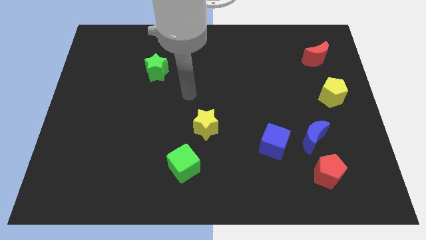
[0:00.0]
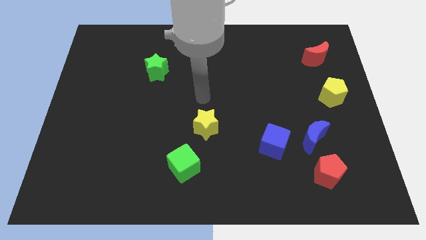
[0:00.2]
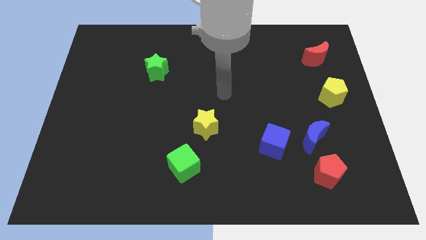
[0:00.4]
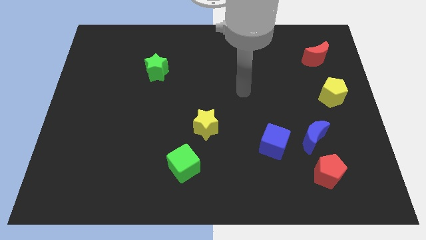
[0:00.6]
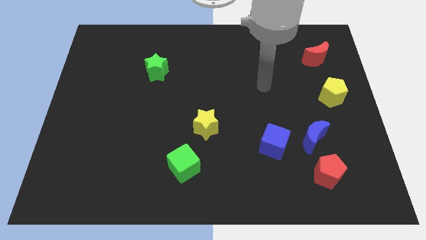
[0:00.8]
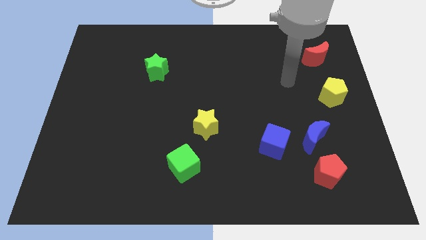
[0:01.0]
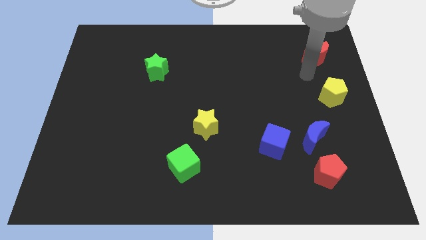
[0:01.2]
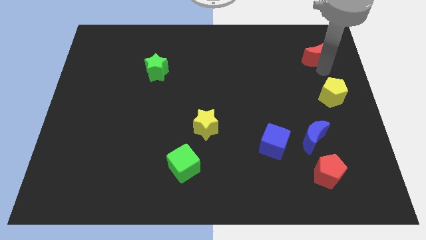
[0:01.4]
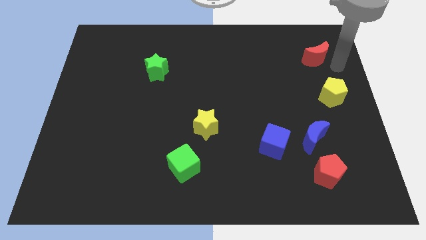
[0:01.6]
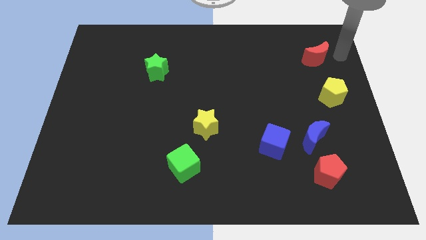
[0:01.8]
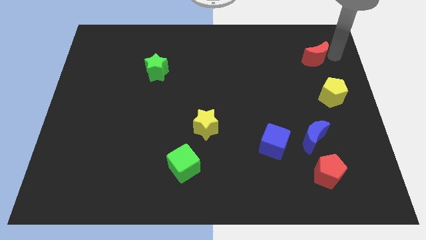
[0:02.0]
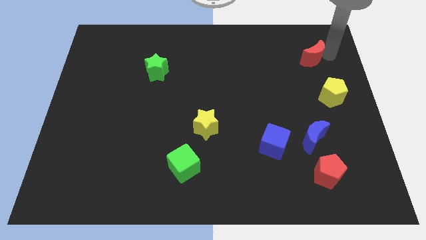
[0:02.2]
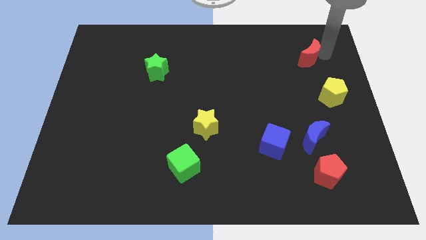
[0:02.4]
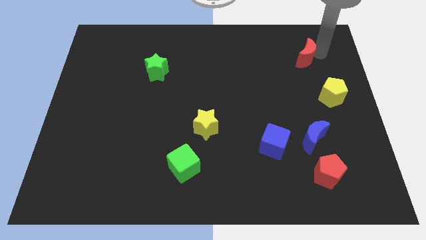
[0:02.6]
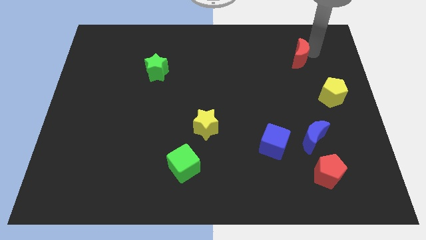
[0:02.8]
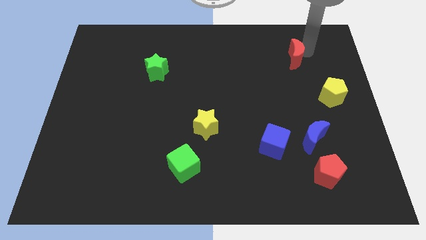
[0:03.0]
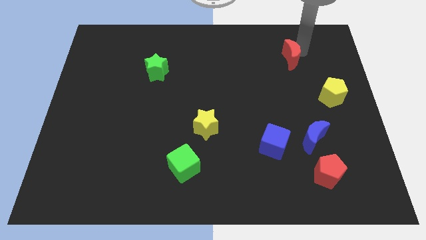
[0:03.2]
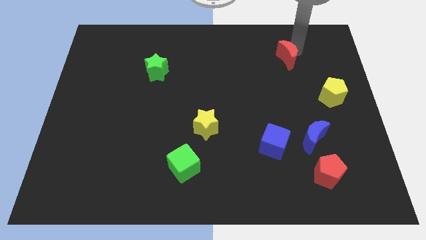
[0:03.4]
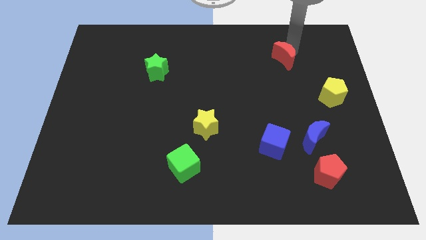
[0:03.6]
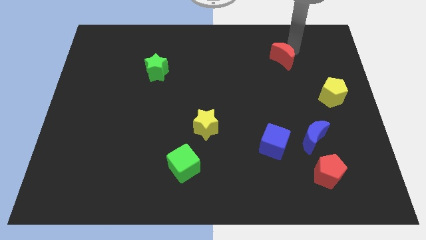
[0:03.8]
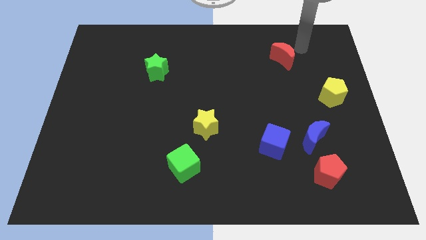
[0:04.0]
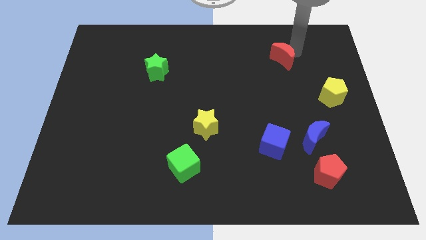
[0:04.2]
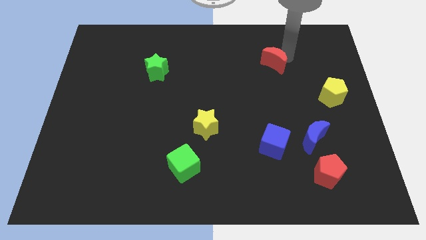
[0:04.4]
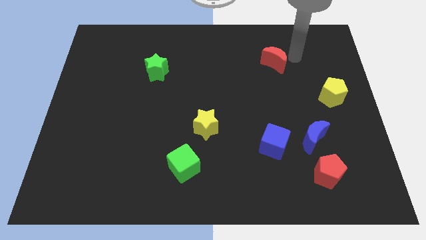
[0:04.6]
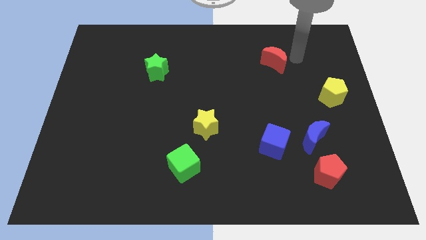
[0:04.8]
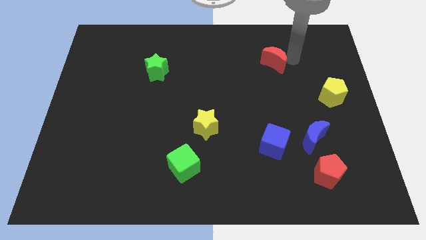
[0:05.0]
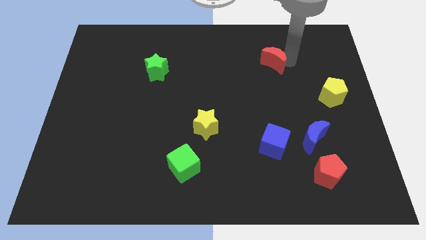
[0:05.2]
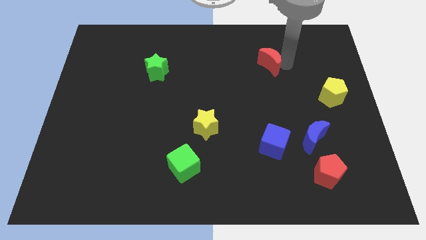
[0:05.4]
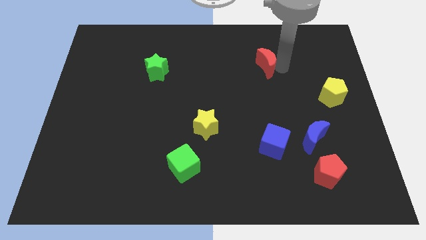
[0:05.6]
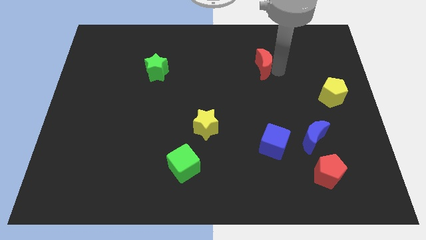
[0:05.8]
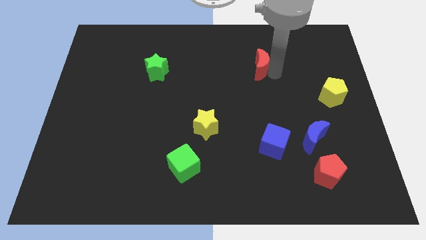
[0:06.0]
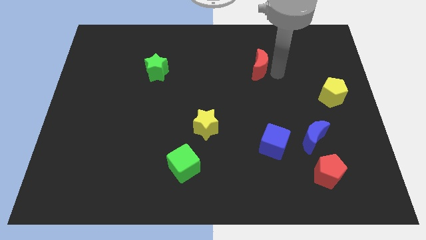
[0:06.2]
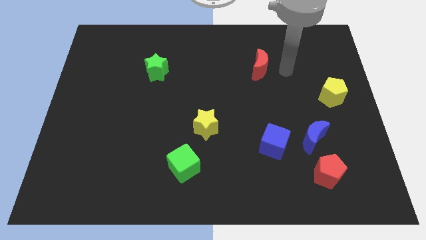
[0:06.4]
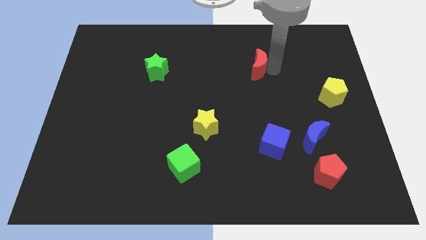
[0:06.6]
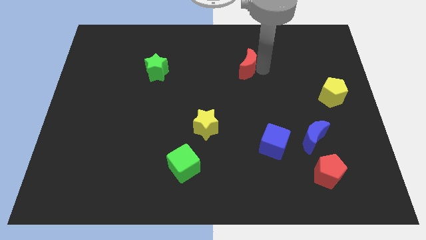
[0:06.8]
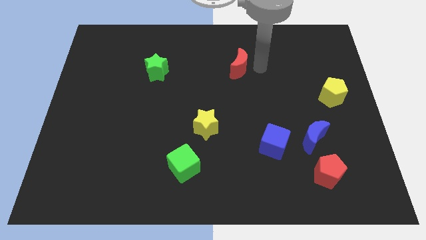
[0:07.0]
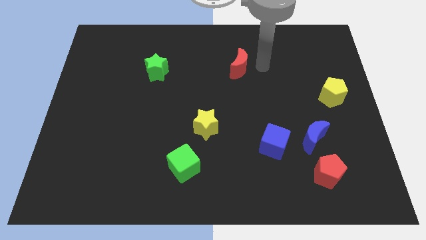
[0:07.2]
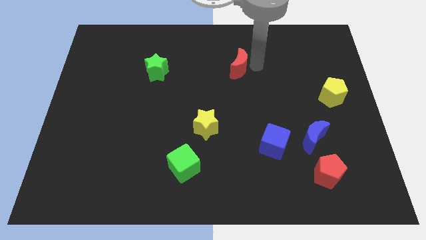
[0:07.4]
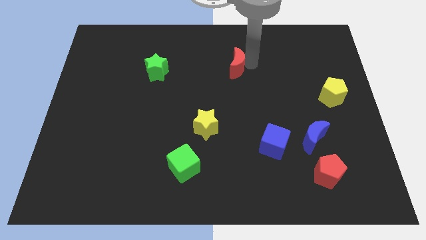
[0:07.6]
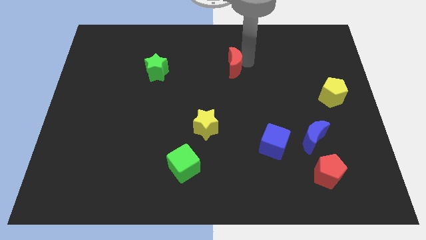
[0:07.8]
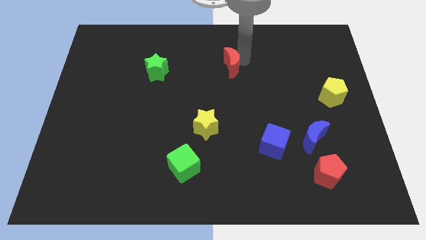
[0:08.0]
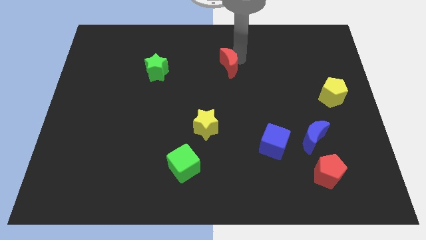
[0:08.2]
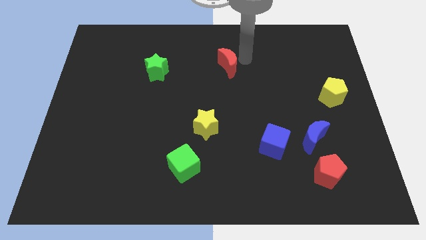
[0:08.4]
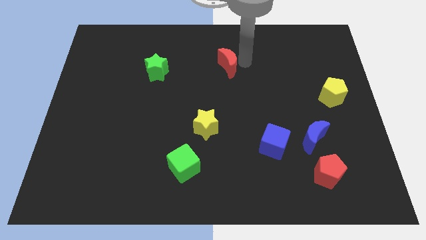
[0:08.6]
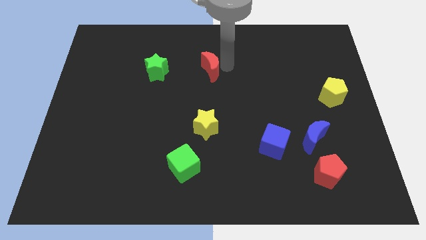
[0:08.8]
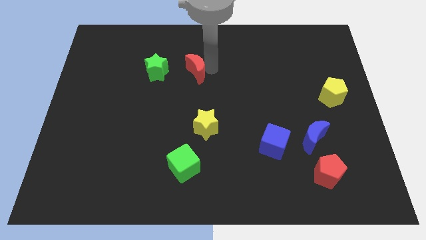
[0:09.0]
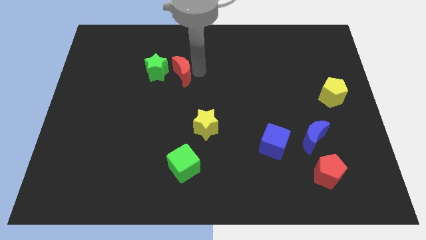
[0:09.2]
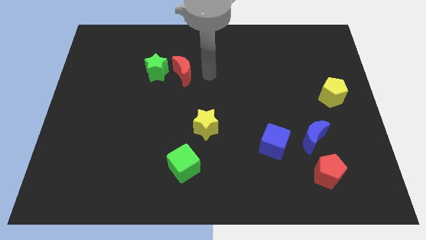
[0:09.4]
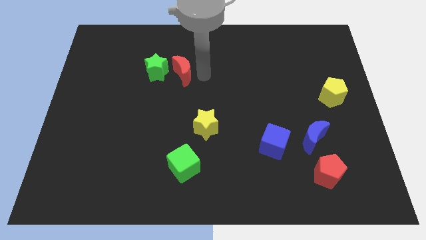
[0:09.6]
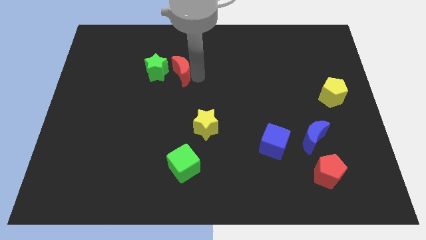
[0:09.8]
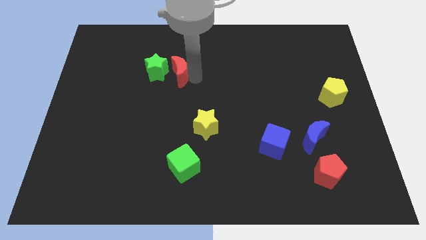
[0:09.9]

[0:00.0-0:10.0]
push the red moon close to the green star

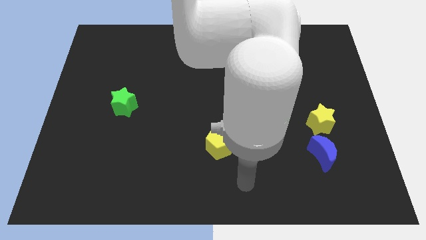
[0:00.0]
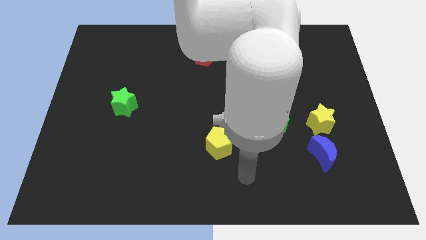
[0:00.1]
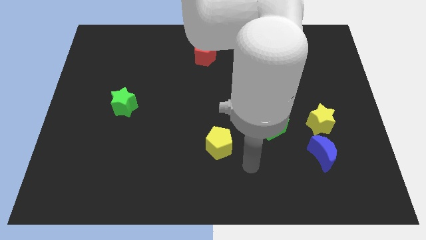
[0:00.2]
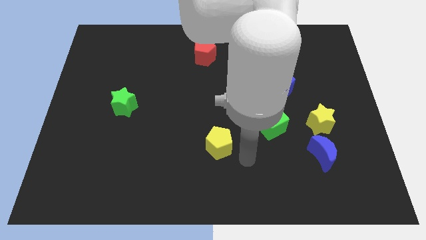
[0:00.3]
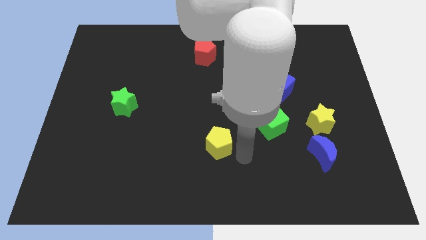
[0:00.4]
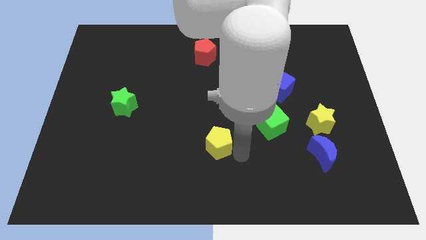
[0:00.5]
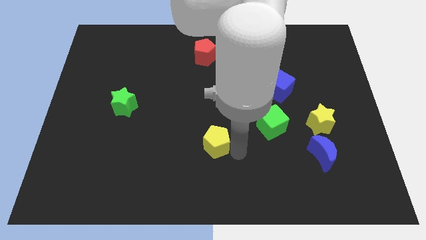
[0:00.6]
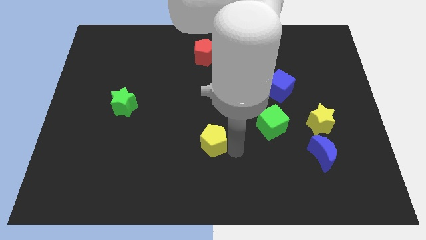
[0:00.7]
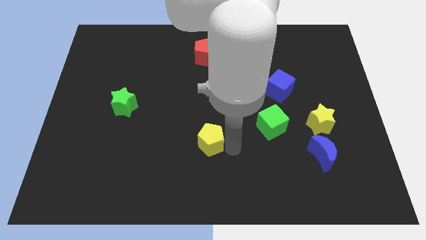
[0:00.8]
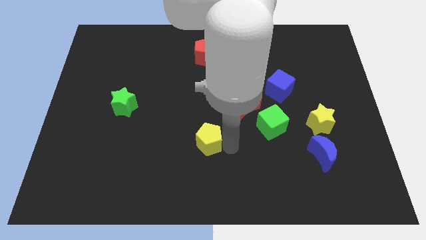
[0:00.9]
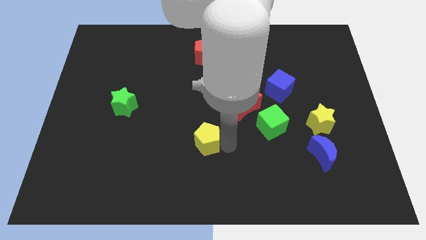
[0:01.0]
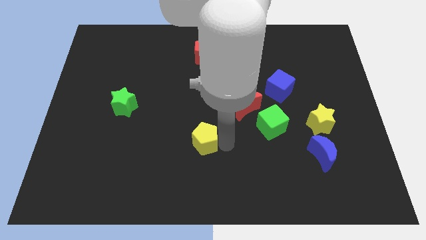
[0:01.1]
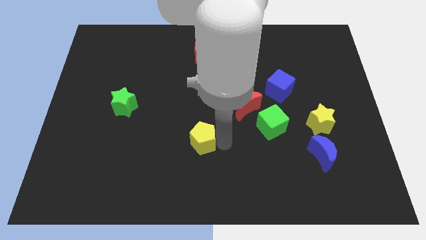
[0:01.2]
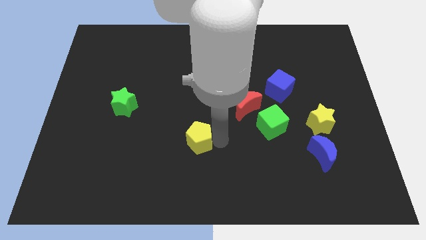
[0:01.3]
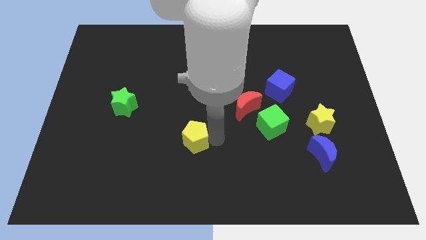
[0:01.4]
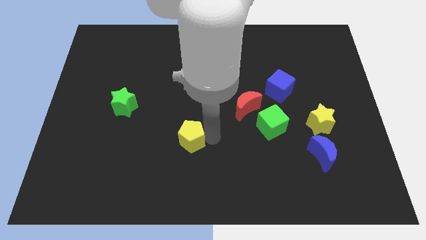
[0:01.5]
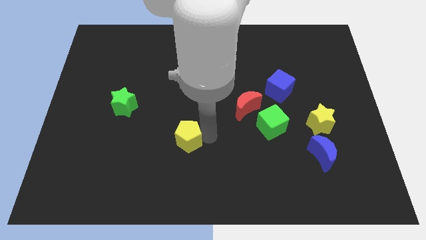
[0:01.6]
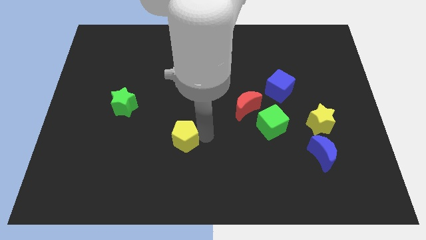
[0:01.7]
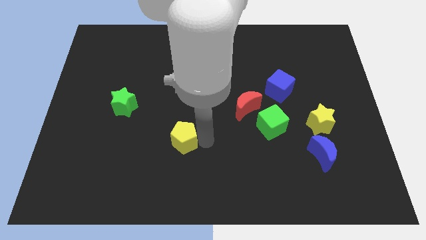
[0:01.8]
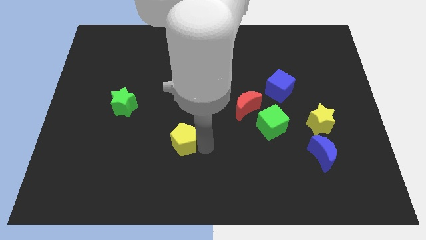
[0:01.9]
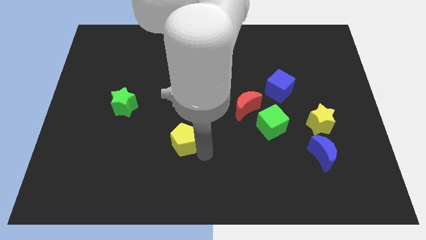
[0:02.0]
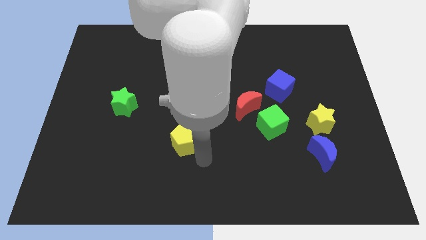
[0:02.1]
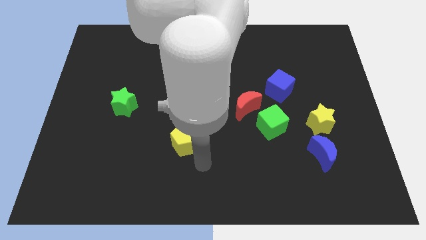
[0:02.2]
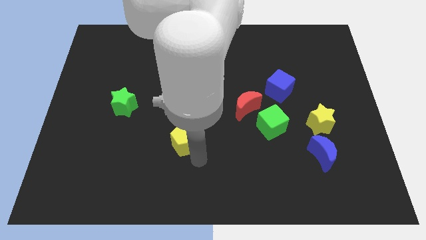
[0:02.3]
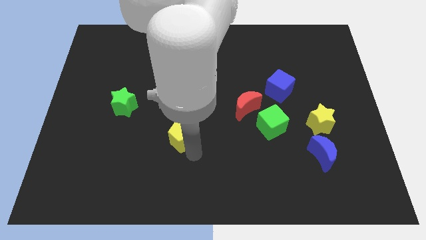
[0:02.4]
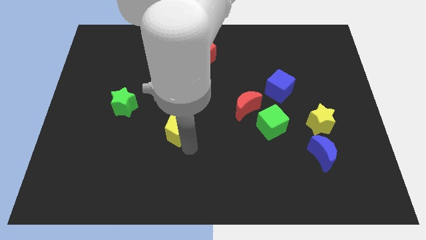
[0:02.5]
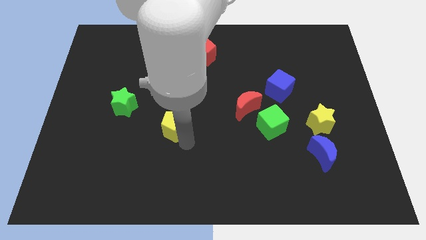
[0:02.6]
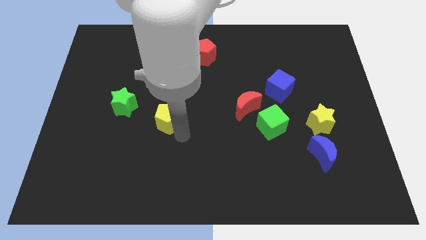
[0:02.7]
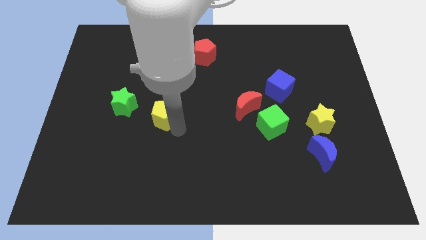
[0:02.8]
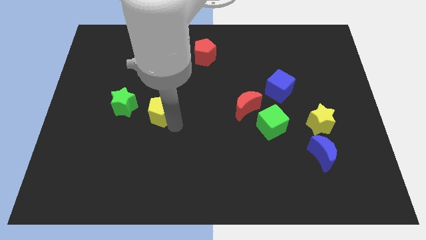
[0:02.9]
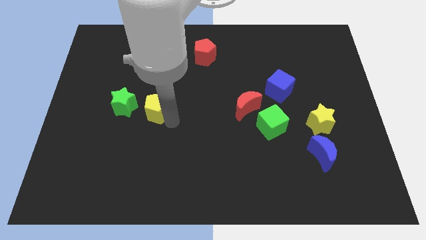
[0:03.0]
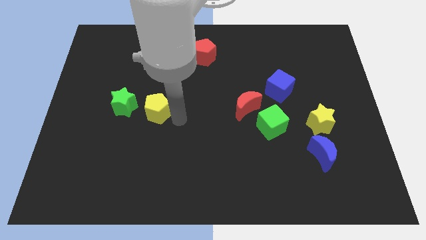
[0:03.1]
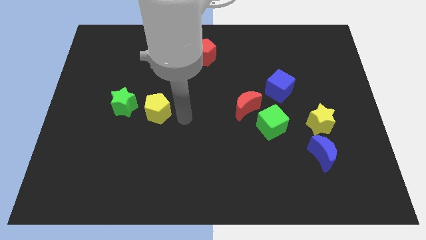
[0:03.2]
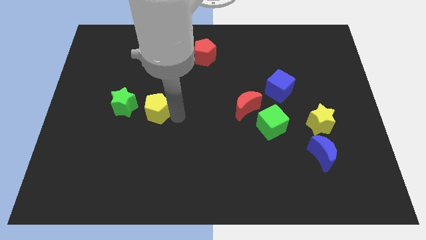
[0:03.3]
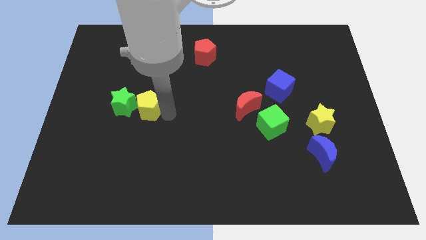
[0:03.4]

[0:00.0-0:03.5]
push the yellow pentagon to the green star
